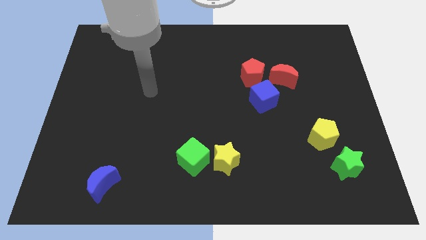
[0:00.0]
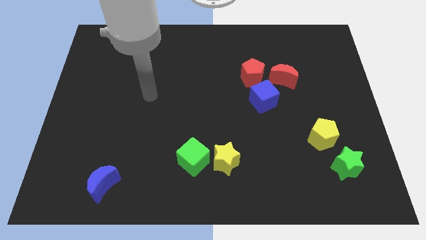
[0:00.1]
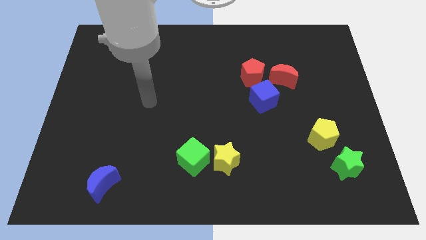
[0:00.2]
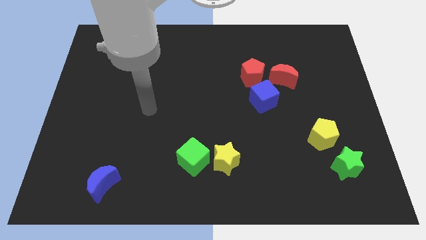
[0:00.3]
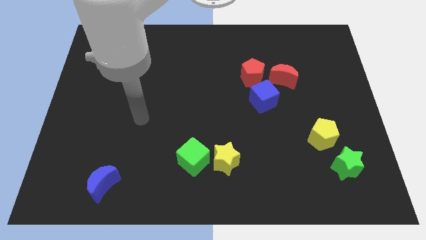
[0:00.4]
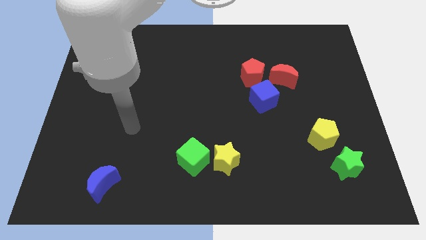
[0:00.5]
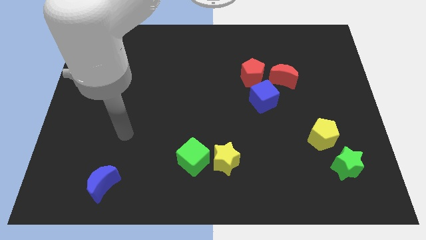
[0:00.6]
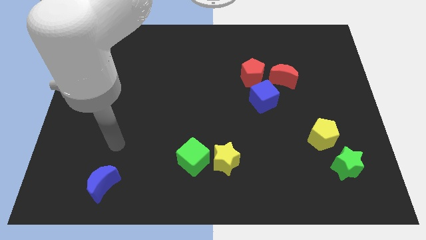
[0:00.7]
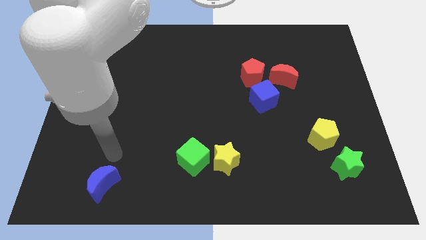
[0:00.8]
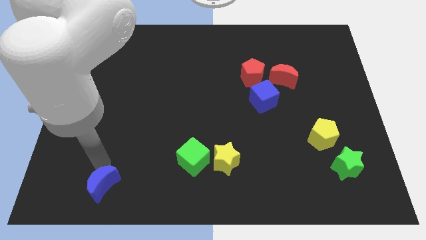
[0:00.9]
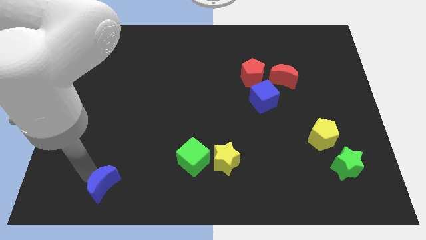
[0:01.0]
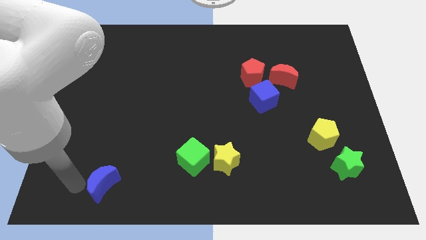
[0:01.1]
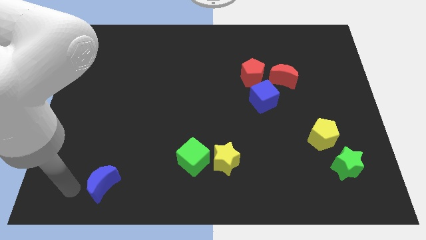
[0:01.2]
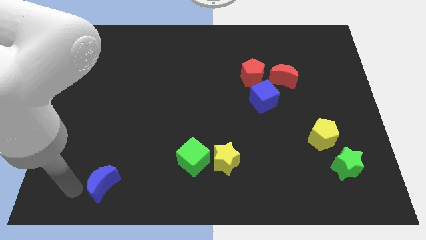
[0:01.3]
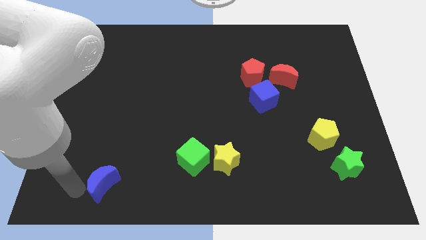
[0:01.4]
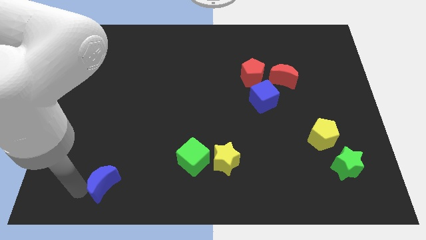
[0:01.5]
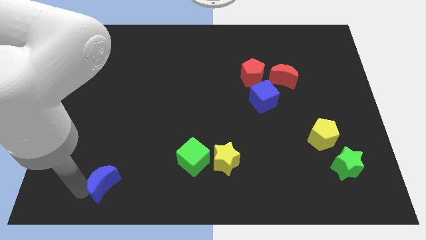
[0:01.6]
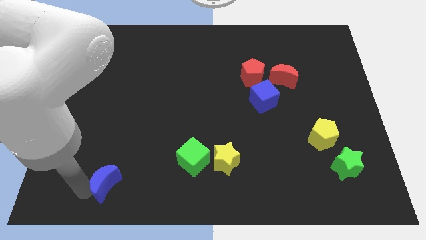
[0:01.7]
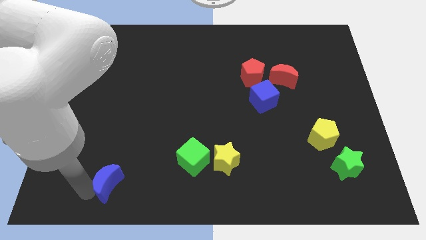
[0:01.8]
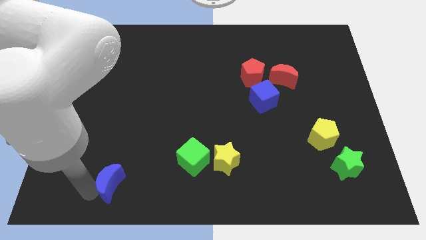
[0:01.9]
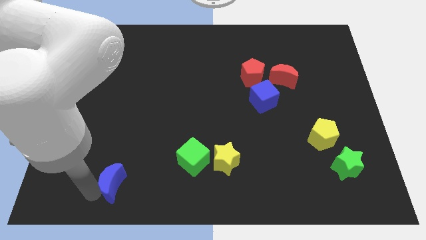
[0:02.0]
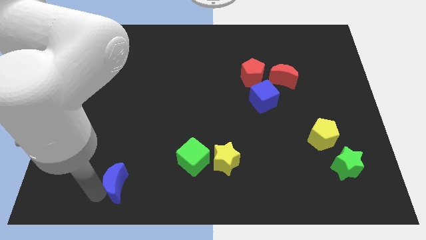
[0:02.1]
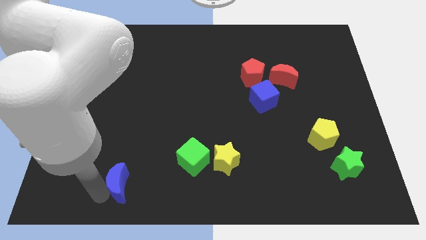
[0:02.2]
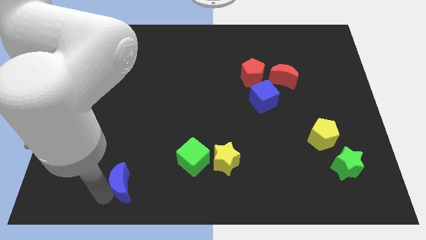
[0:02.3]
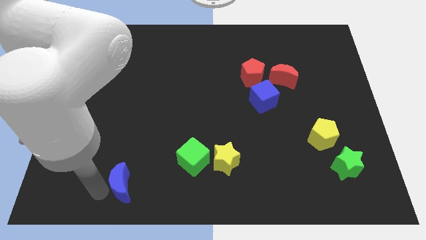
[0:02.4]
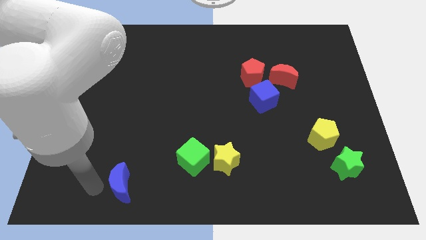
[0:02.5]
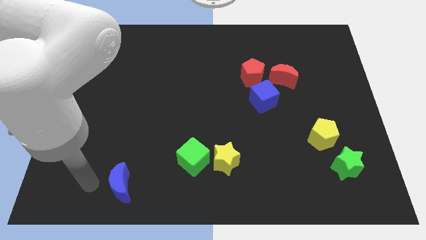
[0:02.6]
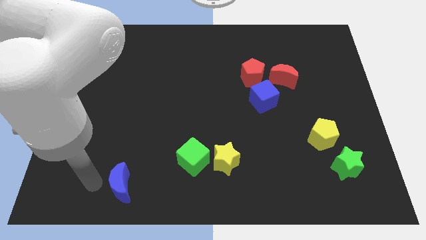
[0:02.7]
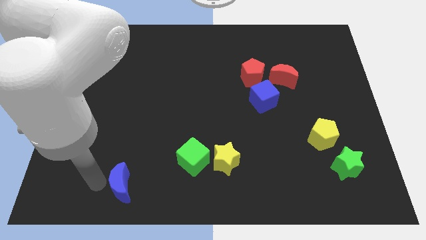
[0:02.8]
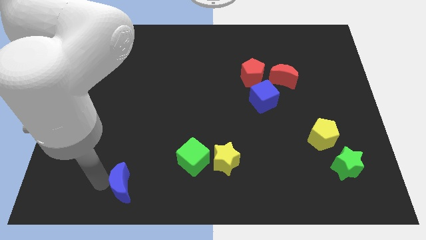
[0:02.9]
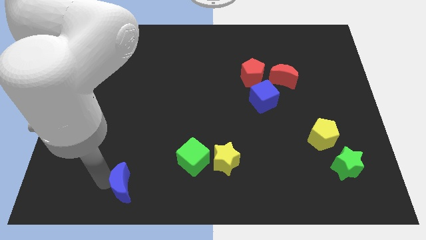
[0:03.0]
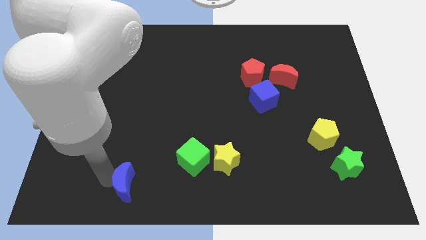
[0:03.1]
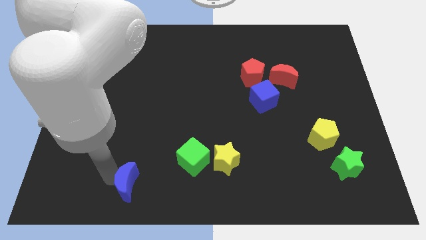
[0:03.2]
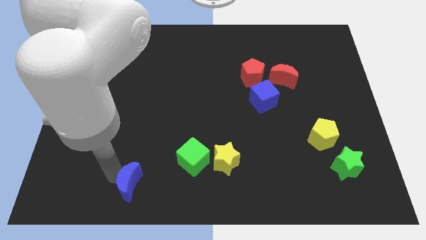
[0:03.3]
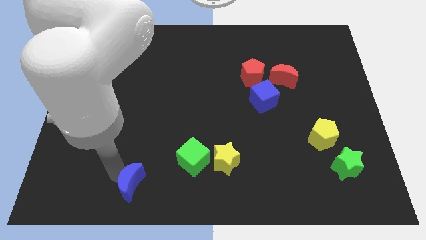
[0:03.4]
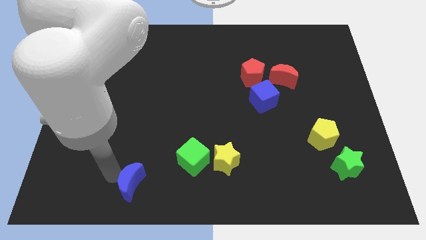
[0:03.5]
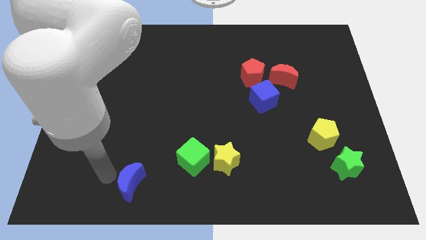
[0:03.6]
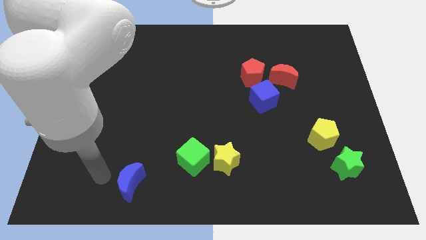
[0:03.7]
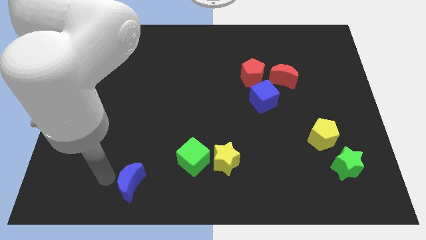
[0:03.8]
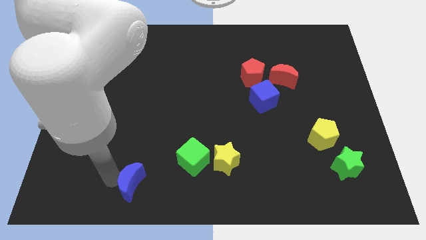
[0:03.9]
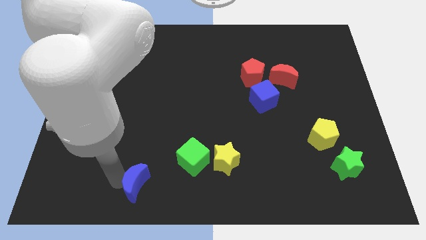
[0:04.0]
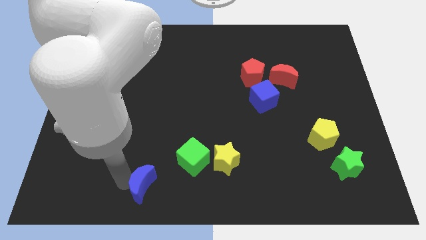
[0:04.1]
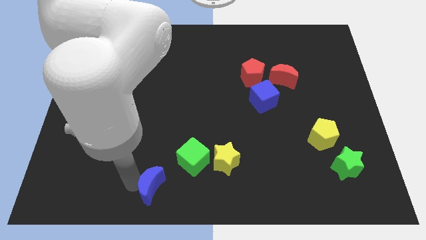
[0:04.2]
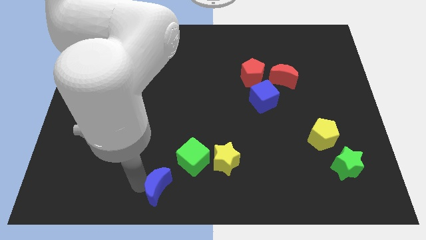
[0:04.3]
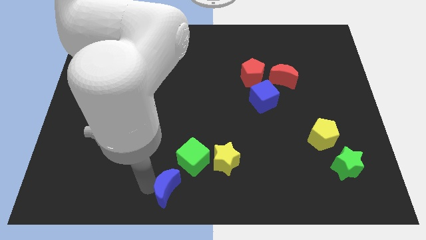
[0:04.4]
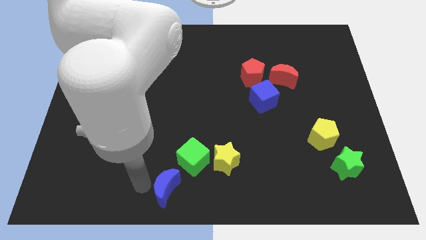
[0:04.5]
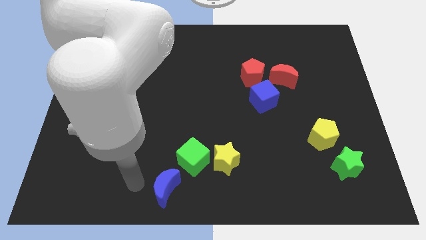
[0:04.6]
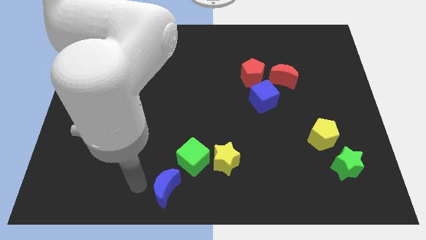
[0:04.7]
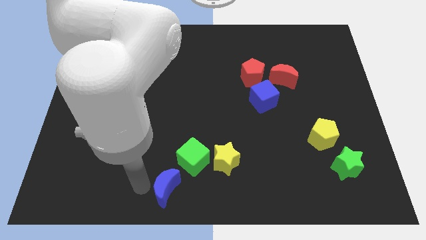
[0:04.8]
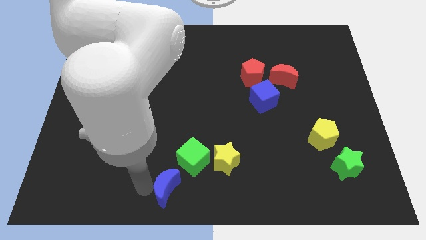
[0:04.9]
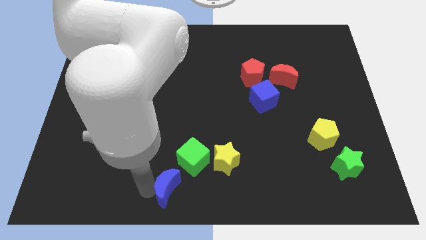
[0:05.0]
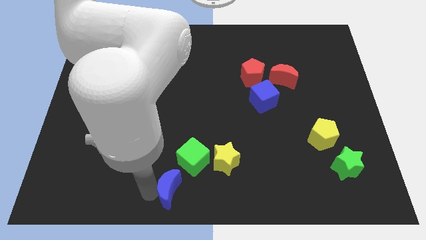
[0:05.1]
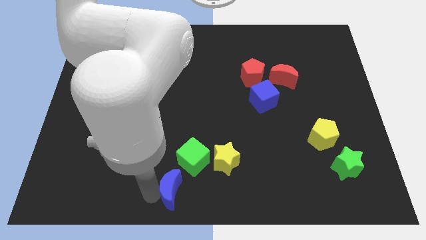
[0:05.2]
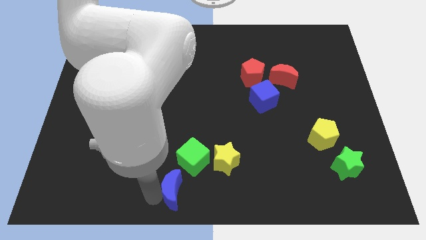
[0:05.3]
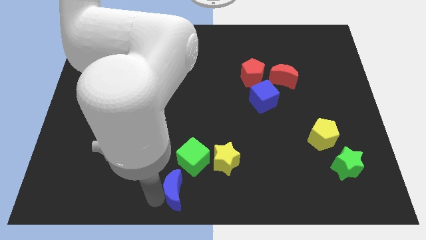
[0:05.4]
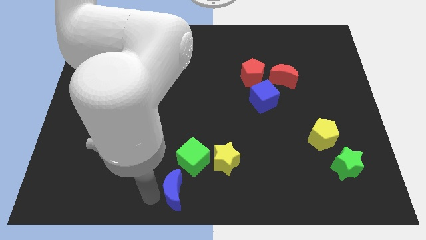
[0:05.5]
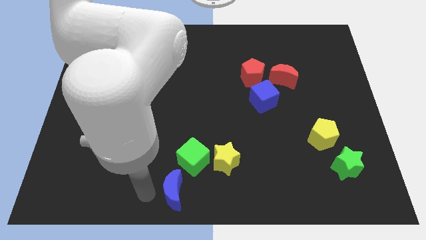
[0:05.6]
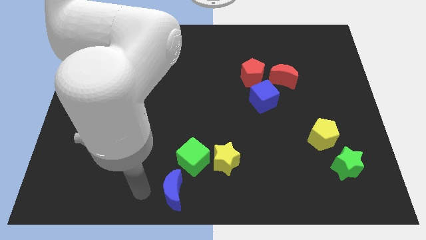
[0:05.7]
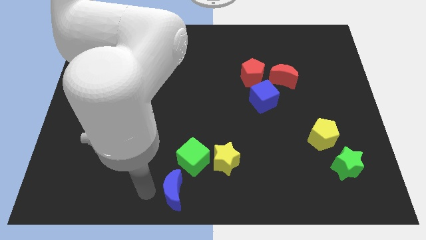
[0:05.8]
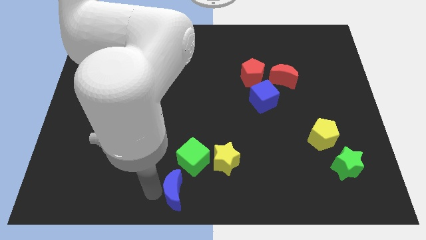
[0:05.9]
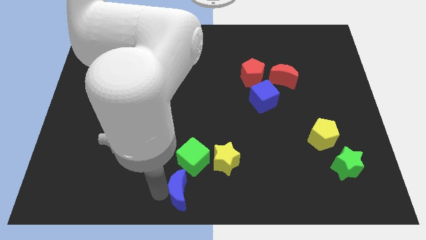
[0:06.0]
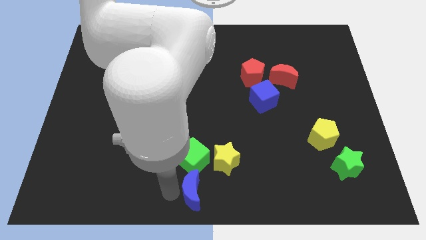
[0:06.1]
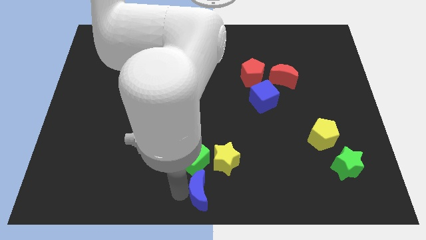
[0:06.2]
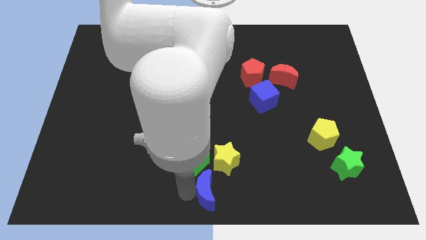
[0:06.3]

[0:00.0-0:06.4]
move the blue moon right

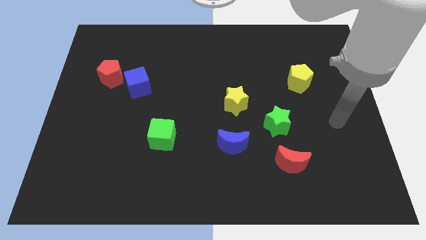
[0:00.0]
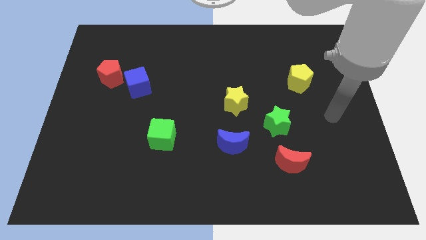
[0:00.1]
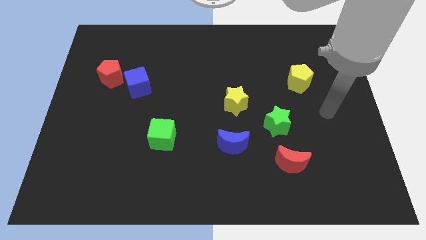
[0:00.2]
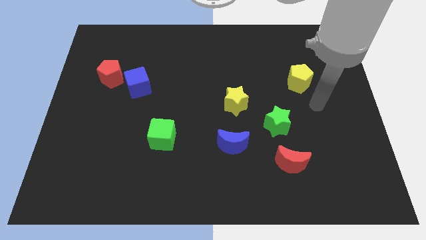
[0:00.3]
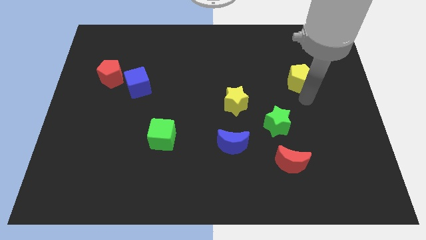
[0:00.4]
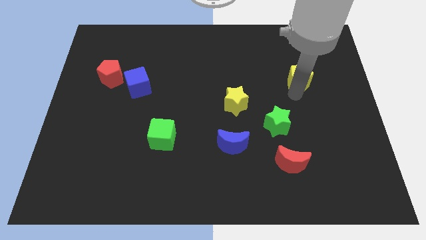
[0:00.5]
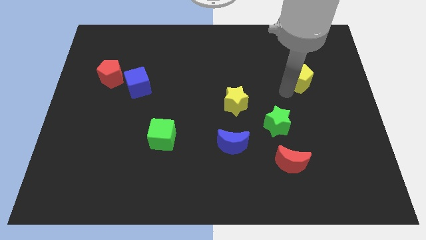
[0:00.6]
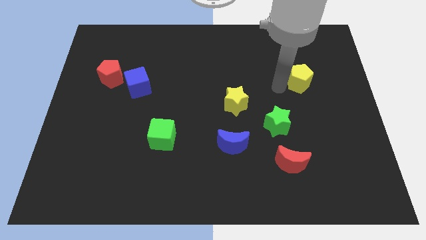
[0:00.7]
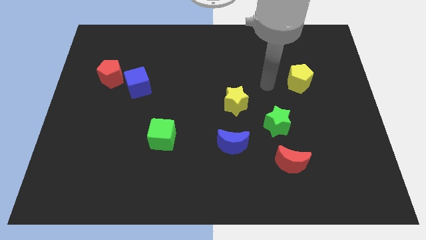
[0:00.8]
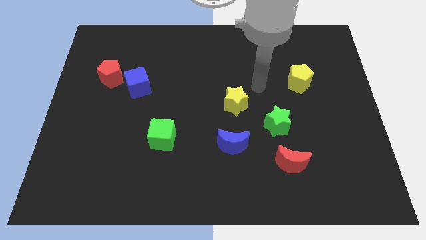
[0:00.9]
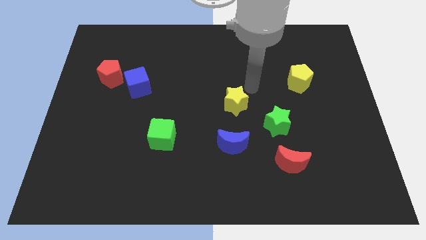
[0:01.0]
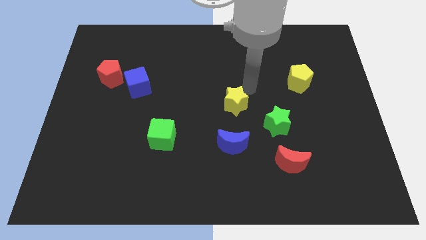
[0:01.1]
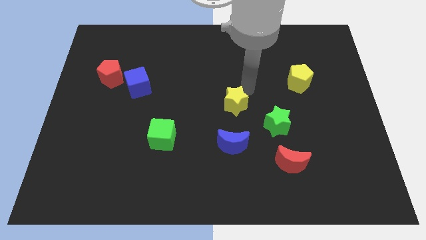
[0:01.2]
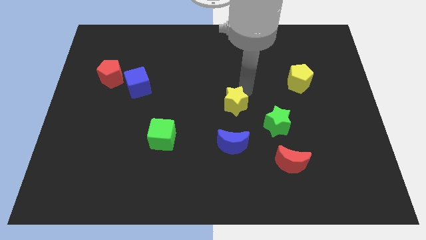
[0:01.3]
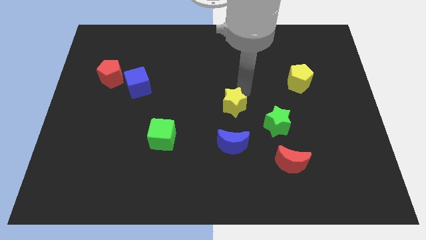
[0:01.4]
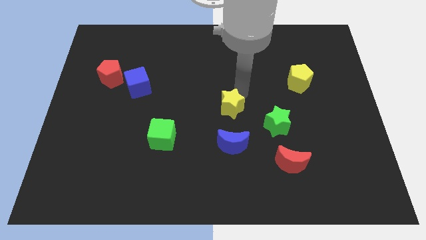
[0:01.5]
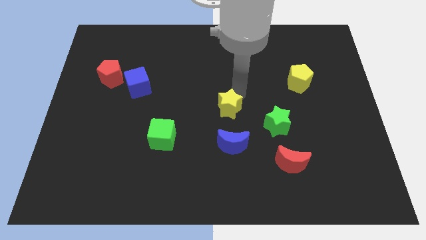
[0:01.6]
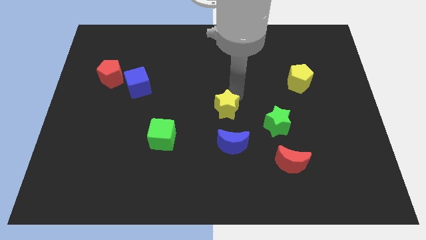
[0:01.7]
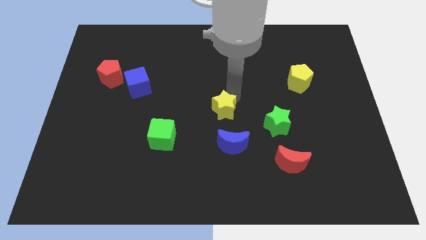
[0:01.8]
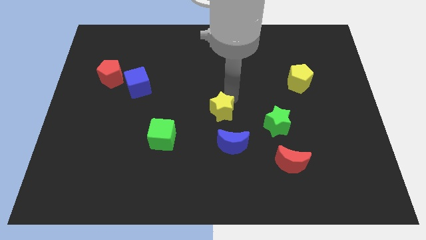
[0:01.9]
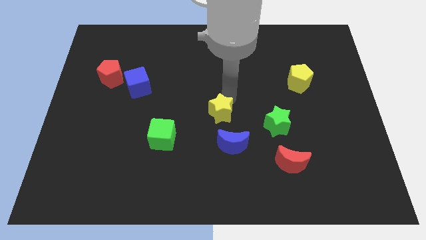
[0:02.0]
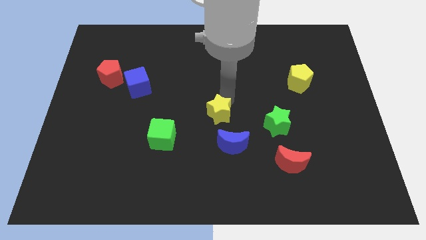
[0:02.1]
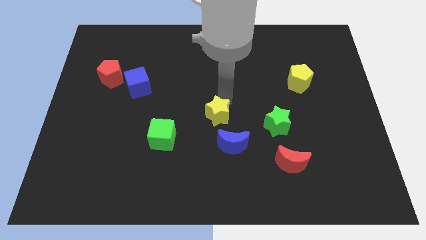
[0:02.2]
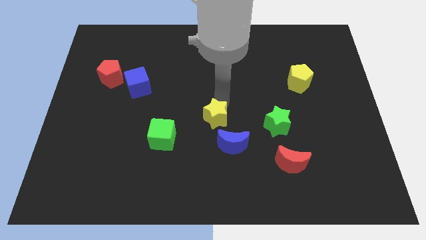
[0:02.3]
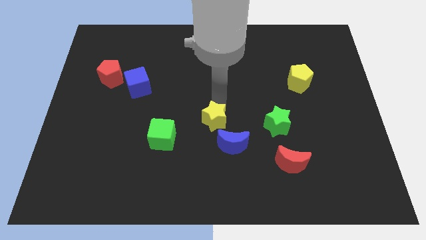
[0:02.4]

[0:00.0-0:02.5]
move the yellow star down and then to the left a little bit
